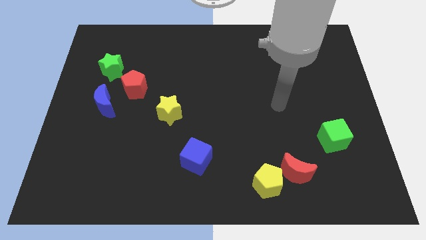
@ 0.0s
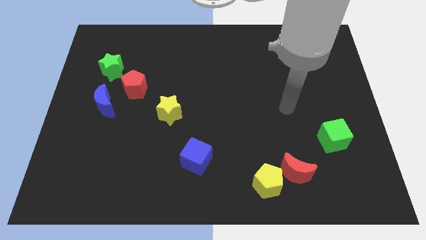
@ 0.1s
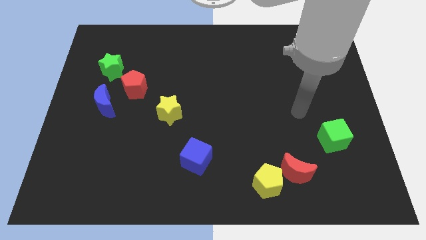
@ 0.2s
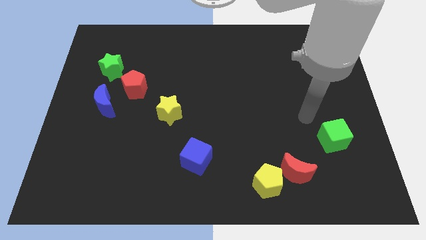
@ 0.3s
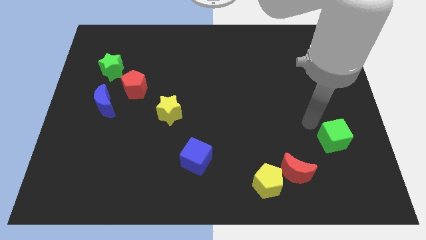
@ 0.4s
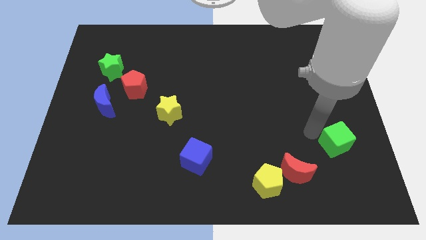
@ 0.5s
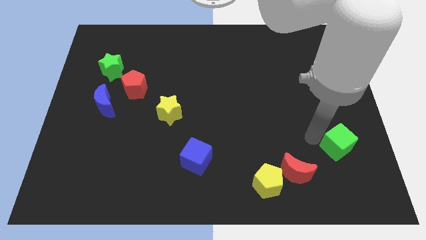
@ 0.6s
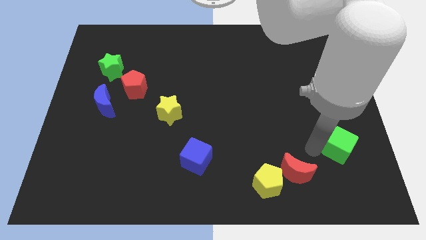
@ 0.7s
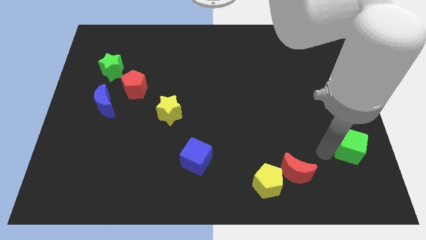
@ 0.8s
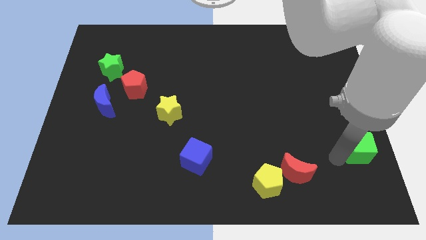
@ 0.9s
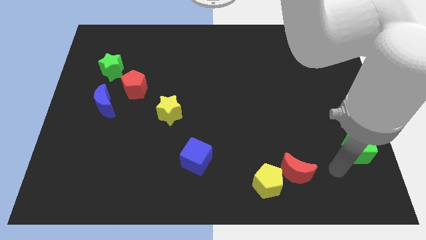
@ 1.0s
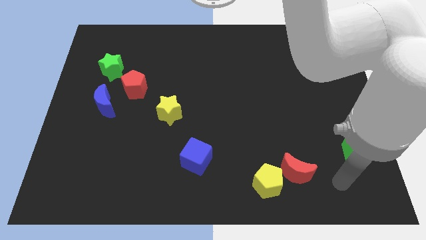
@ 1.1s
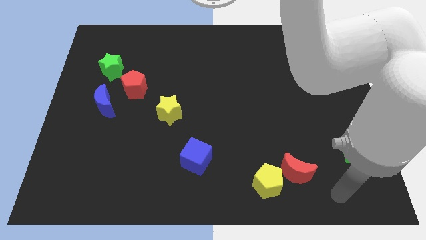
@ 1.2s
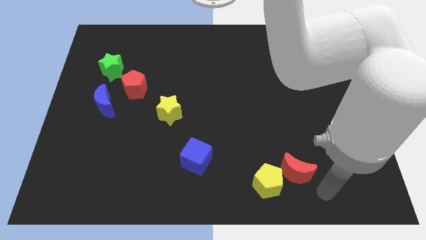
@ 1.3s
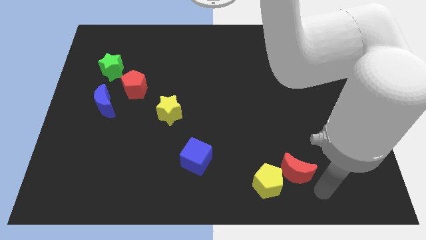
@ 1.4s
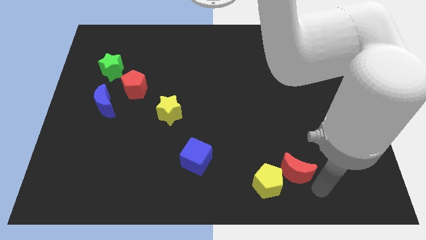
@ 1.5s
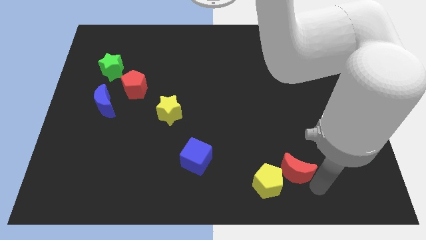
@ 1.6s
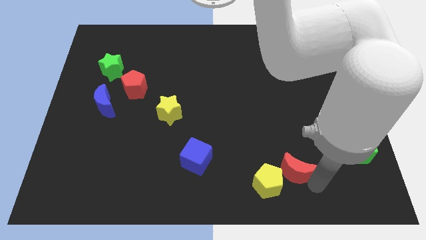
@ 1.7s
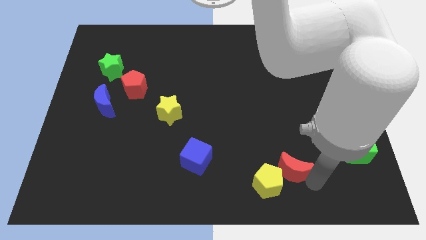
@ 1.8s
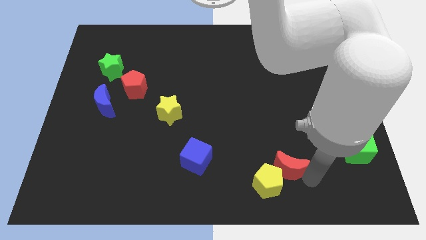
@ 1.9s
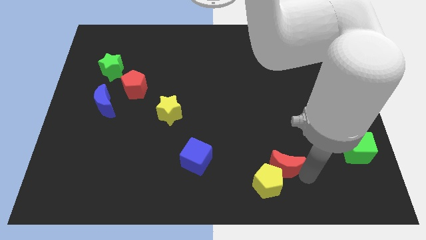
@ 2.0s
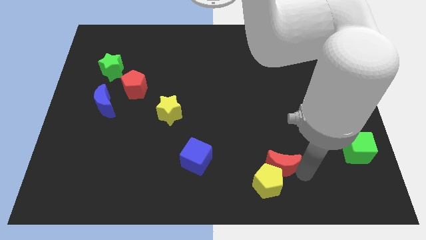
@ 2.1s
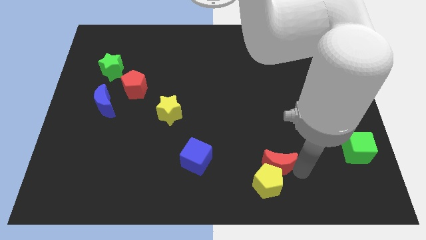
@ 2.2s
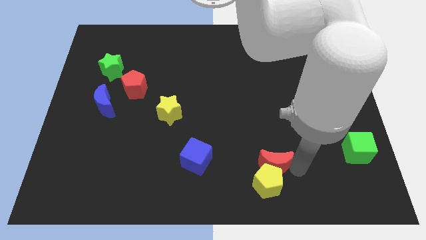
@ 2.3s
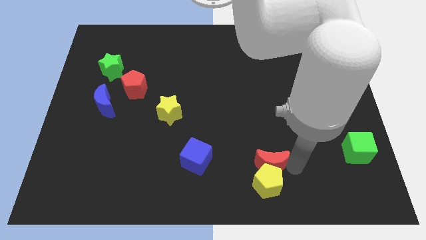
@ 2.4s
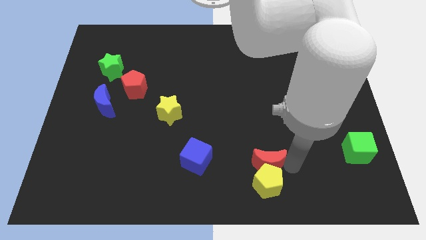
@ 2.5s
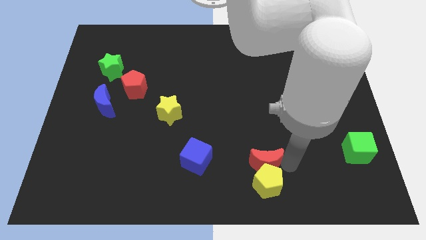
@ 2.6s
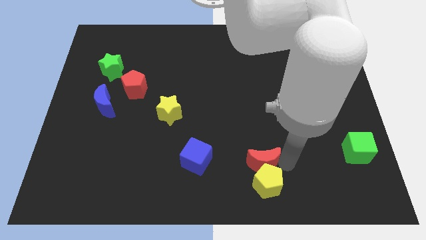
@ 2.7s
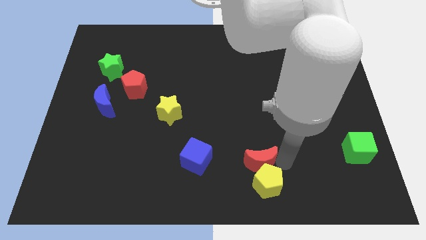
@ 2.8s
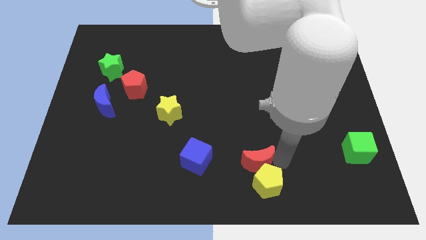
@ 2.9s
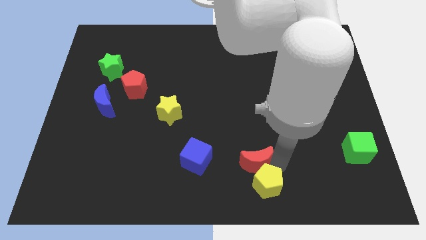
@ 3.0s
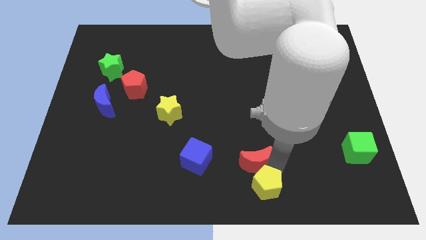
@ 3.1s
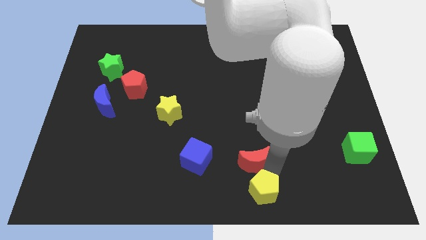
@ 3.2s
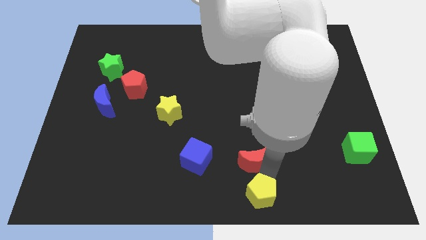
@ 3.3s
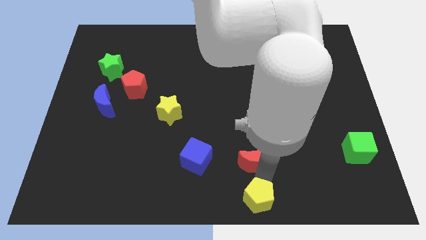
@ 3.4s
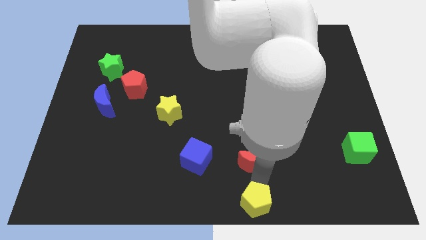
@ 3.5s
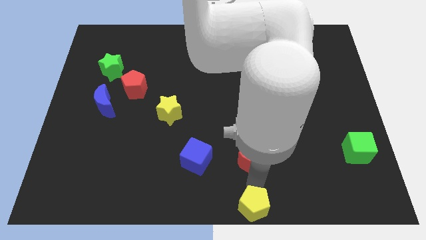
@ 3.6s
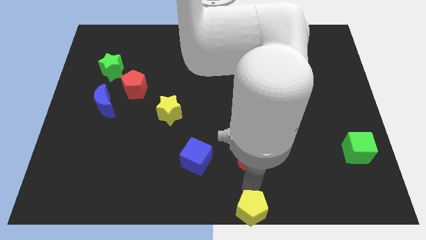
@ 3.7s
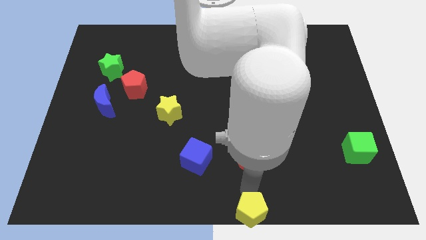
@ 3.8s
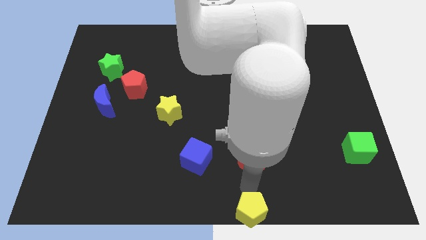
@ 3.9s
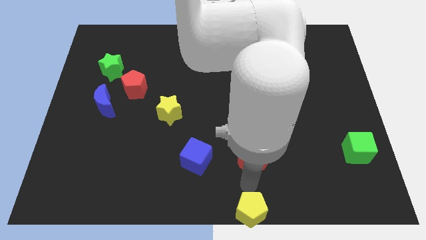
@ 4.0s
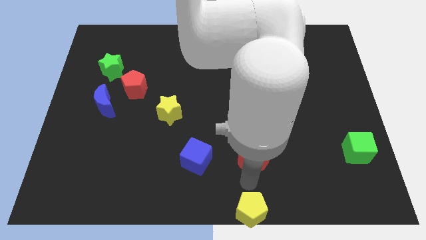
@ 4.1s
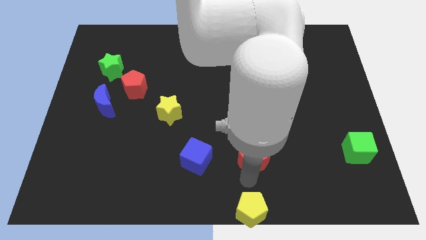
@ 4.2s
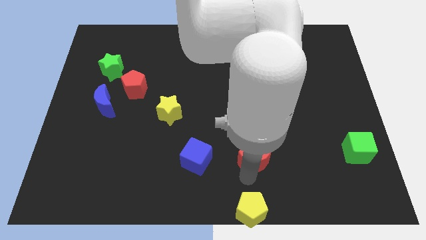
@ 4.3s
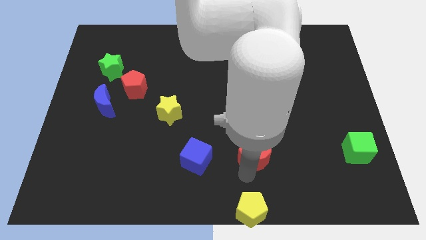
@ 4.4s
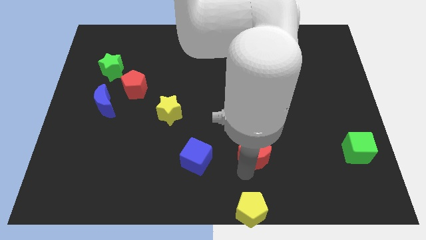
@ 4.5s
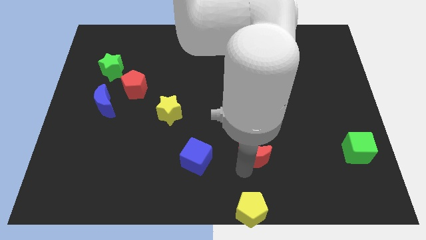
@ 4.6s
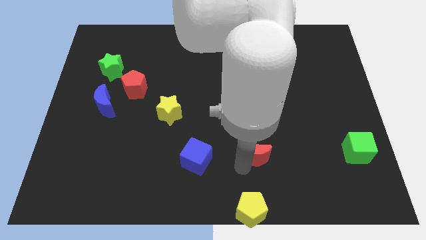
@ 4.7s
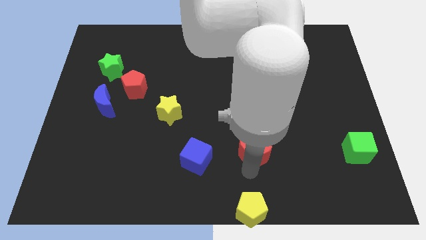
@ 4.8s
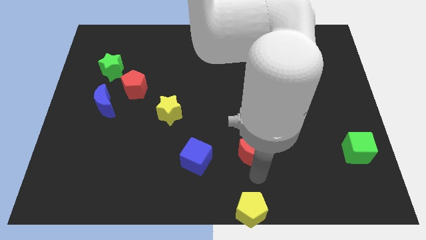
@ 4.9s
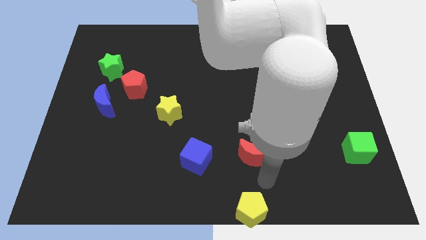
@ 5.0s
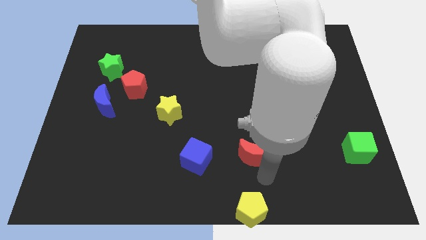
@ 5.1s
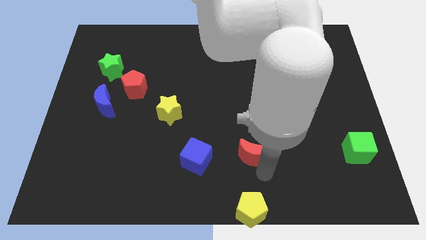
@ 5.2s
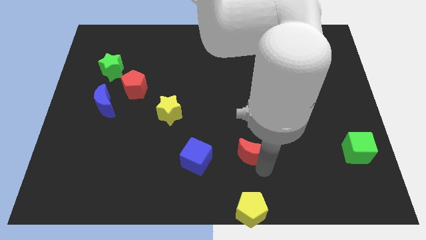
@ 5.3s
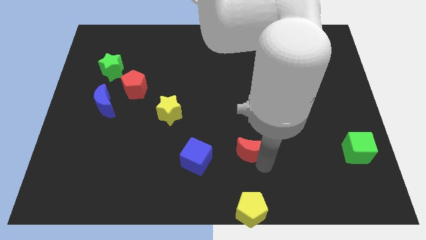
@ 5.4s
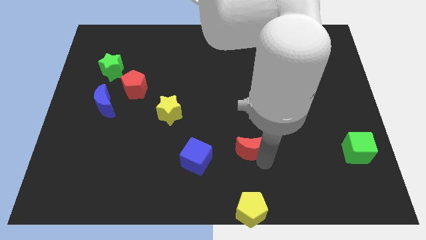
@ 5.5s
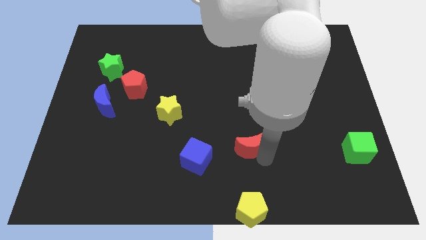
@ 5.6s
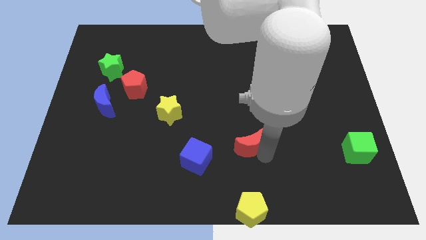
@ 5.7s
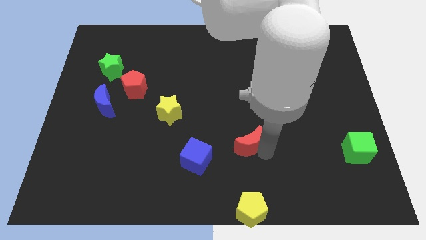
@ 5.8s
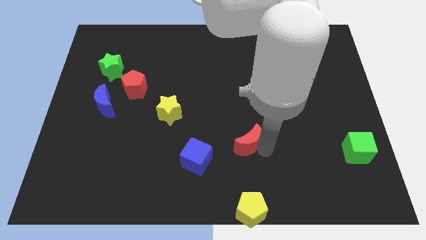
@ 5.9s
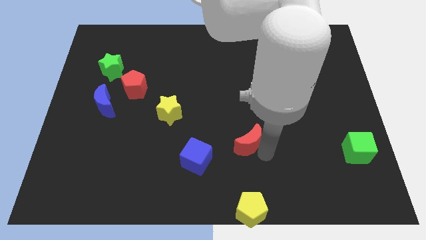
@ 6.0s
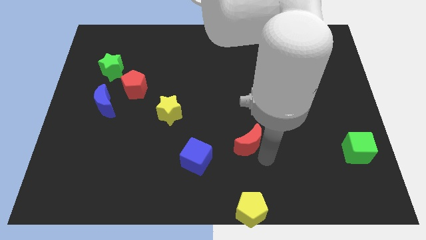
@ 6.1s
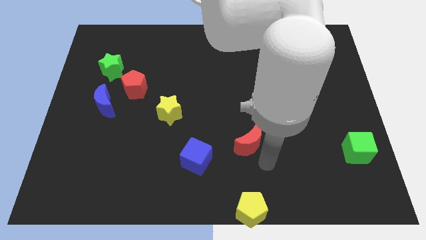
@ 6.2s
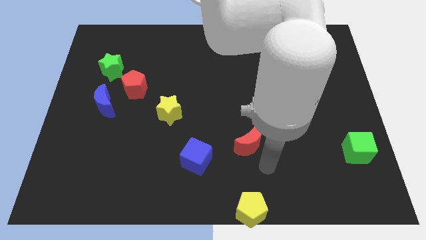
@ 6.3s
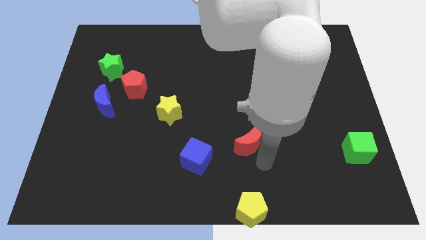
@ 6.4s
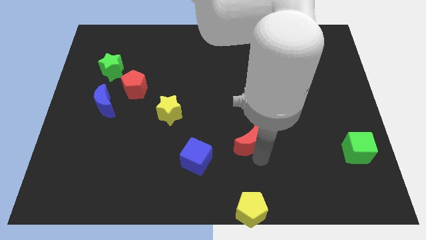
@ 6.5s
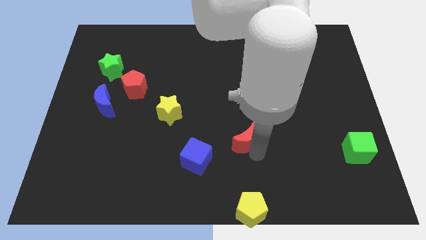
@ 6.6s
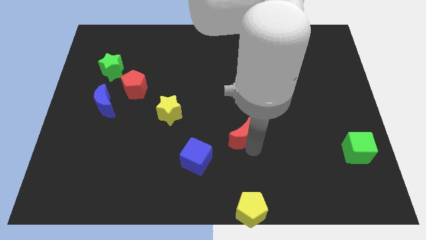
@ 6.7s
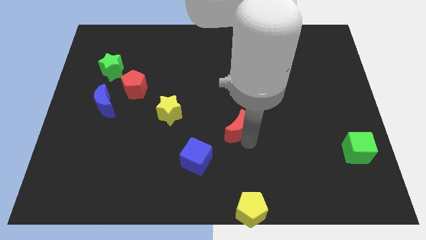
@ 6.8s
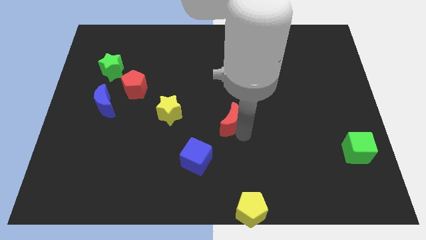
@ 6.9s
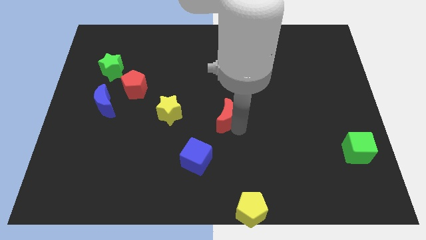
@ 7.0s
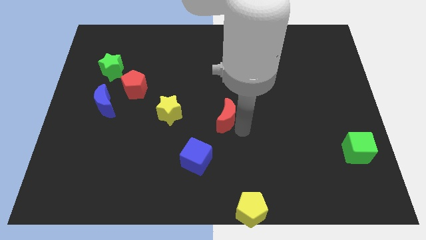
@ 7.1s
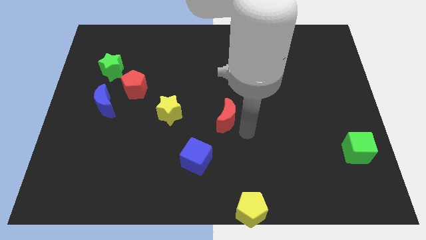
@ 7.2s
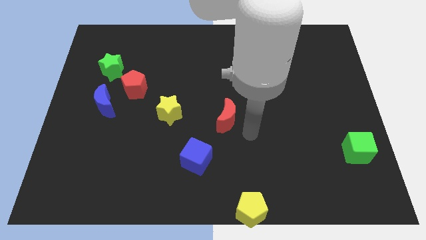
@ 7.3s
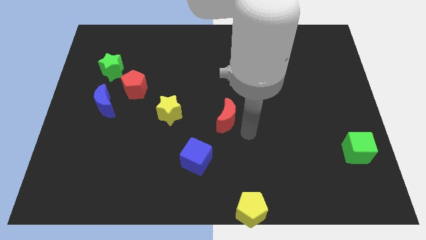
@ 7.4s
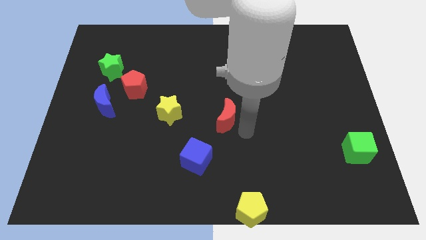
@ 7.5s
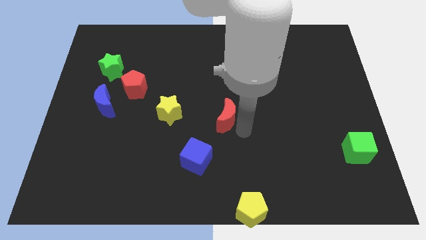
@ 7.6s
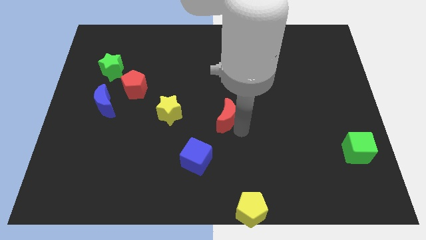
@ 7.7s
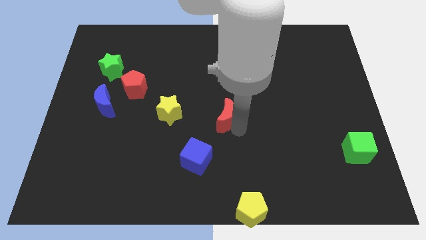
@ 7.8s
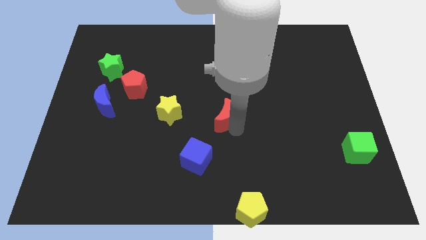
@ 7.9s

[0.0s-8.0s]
move the red moon diagonally up and to the left
